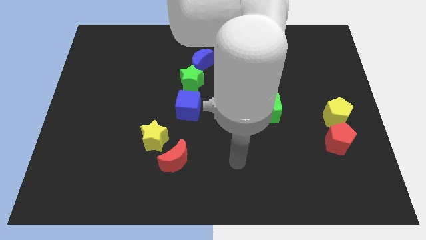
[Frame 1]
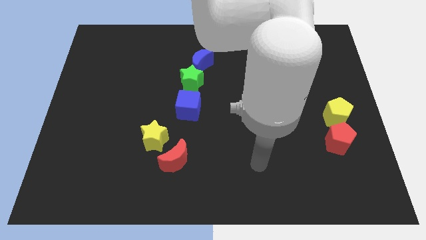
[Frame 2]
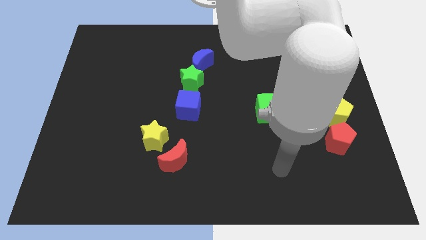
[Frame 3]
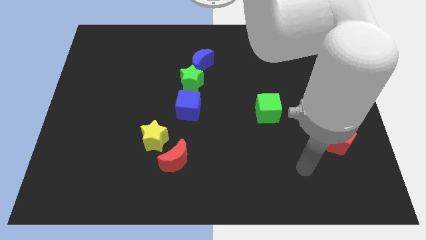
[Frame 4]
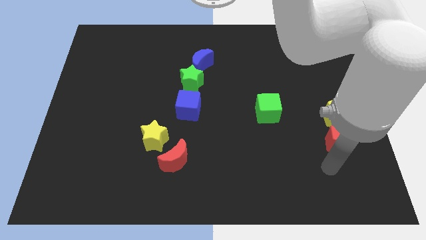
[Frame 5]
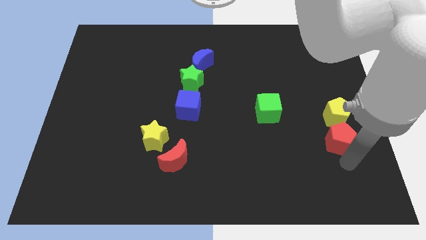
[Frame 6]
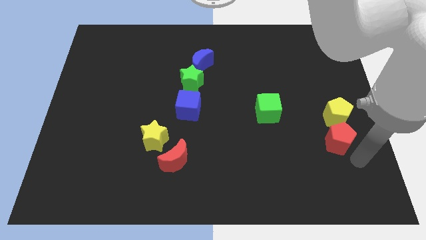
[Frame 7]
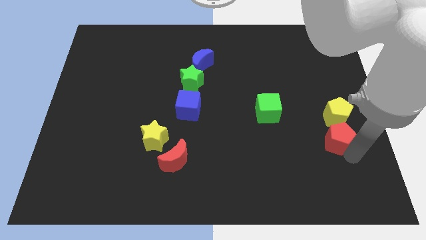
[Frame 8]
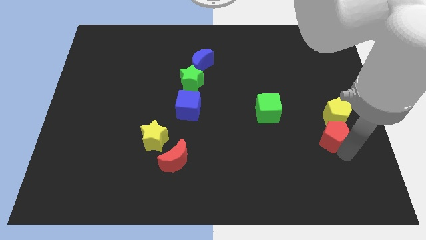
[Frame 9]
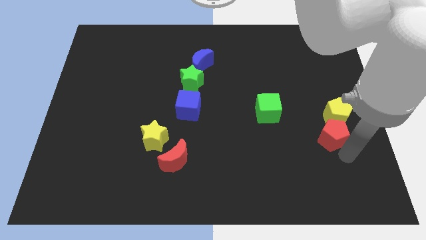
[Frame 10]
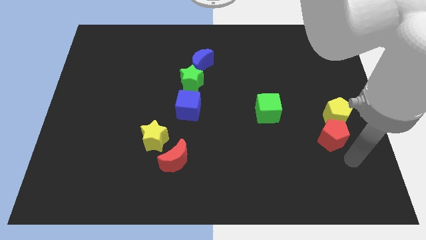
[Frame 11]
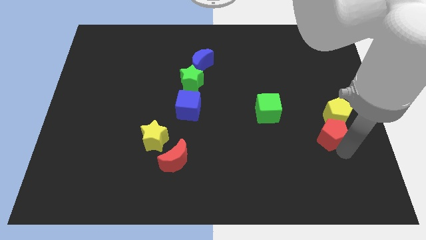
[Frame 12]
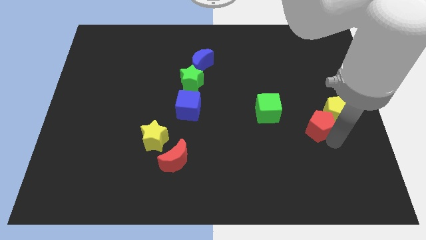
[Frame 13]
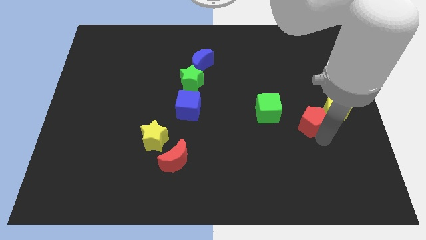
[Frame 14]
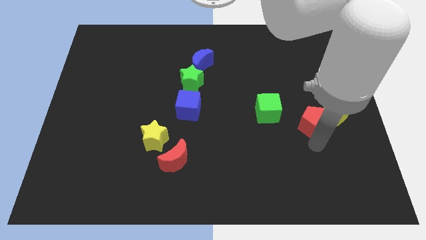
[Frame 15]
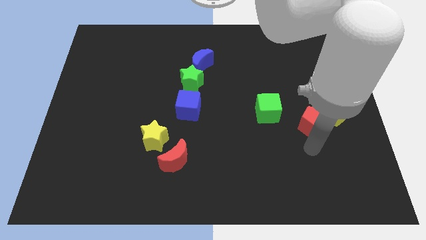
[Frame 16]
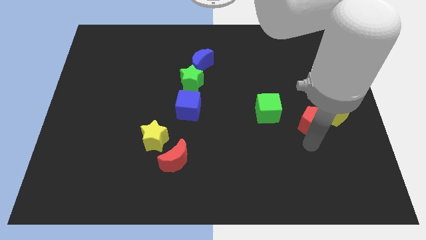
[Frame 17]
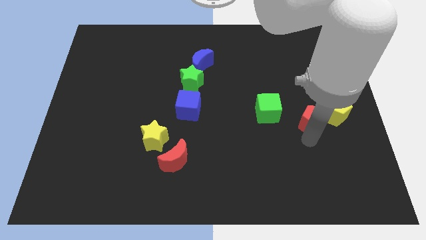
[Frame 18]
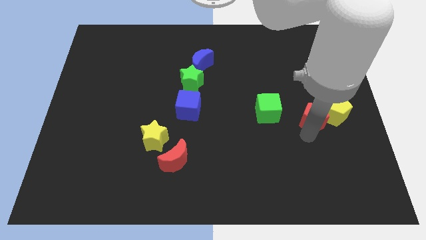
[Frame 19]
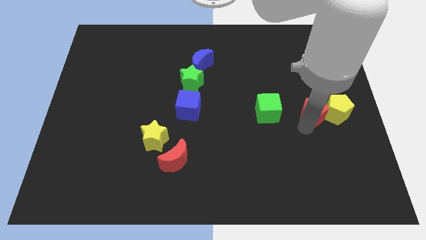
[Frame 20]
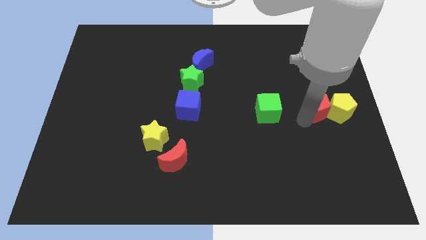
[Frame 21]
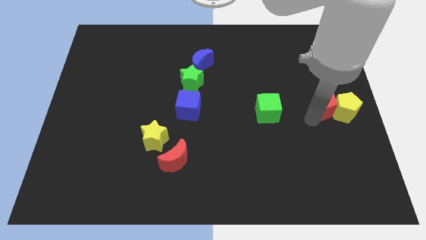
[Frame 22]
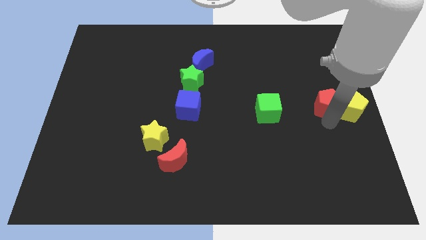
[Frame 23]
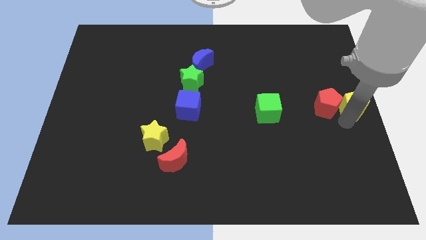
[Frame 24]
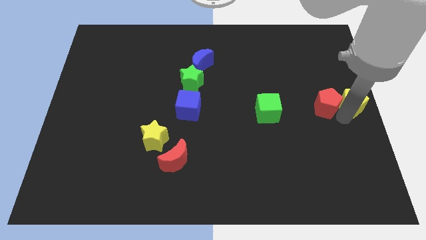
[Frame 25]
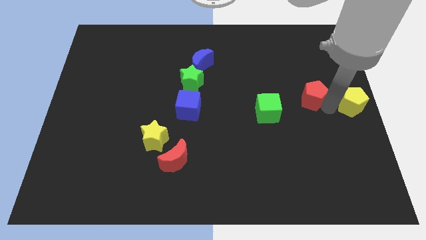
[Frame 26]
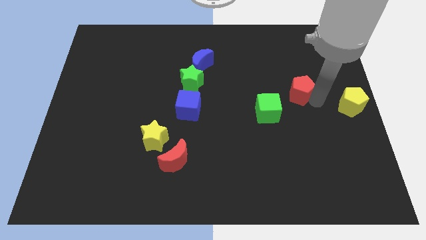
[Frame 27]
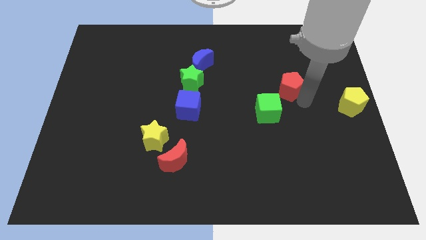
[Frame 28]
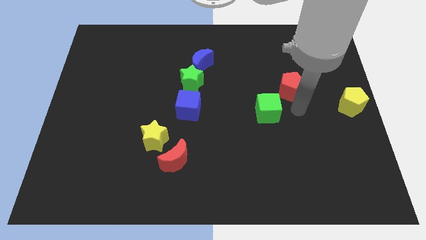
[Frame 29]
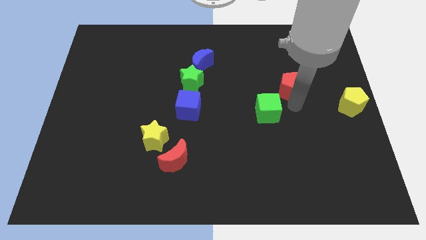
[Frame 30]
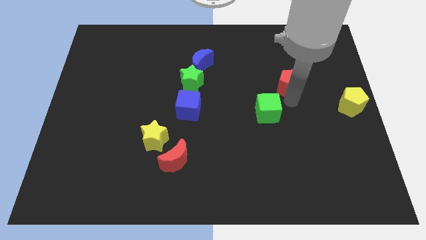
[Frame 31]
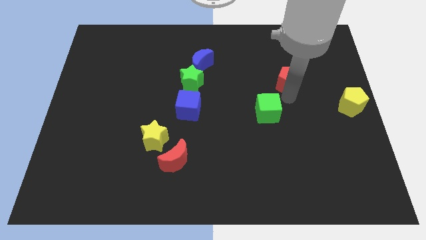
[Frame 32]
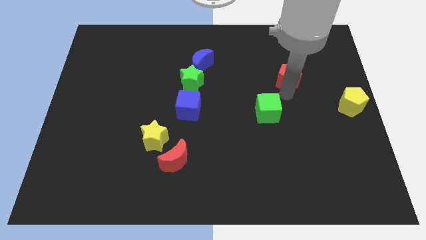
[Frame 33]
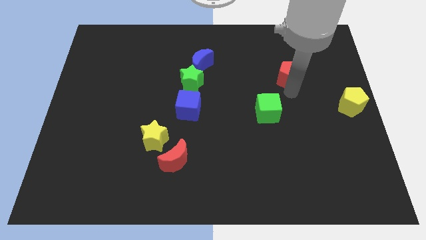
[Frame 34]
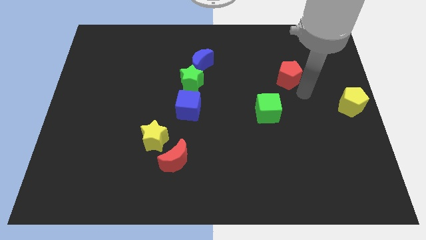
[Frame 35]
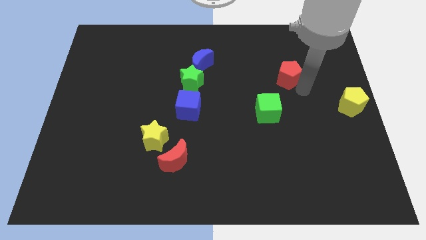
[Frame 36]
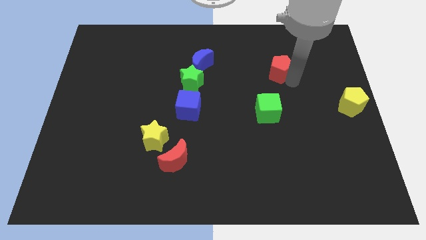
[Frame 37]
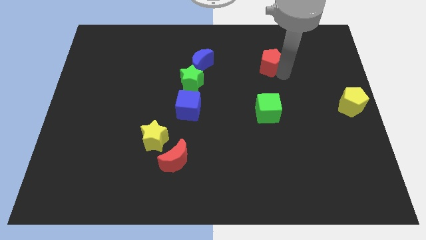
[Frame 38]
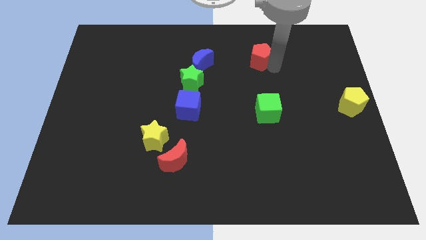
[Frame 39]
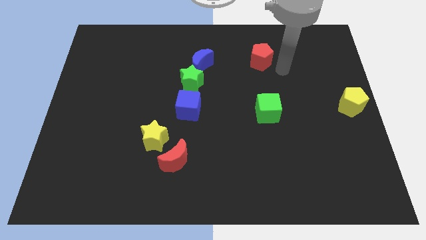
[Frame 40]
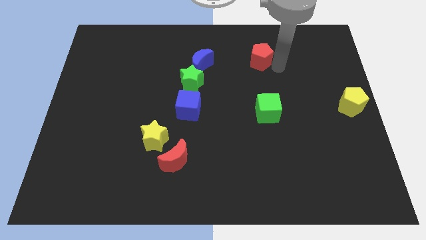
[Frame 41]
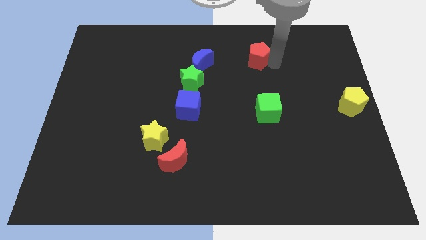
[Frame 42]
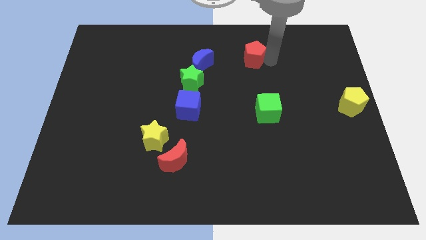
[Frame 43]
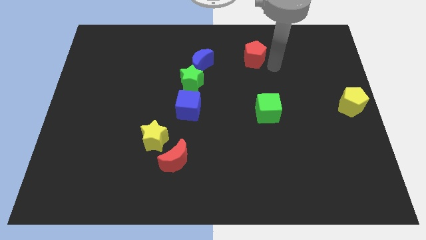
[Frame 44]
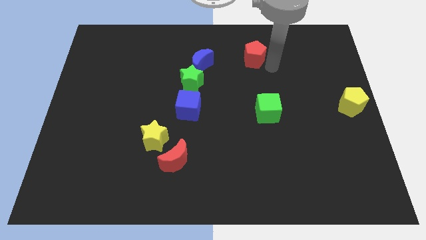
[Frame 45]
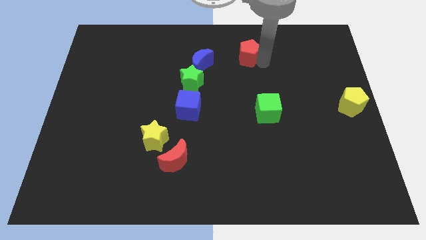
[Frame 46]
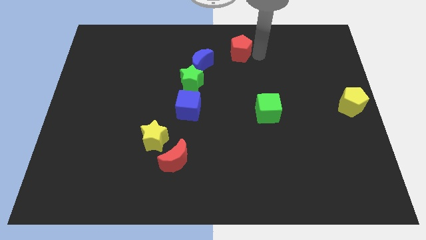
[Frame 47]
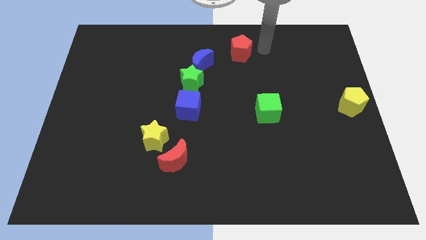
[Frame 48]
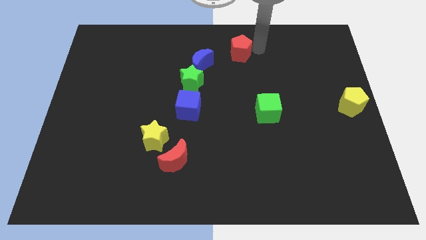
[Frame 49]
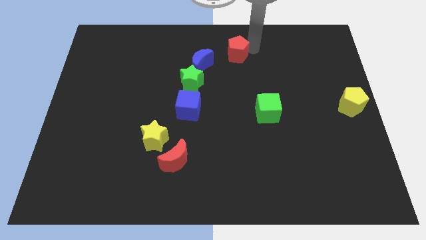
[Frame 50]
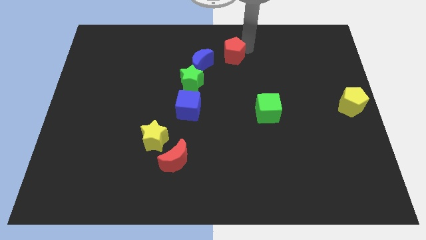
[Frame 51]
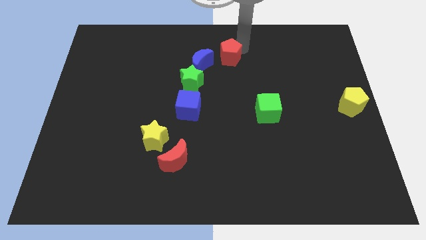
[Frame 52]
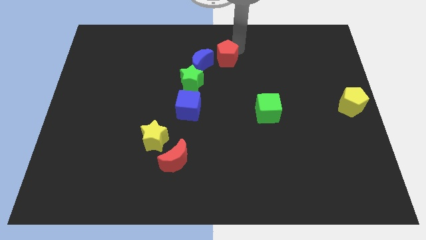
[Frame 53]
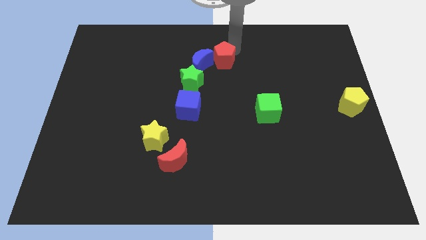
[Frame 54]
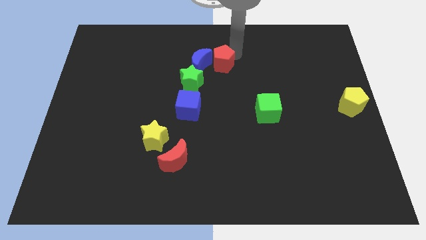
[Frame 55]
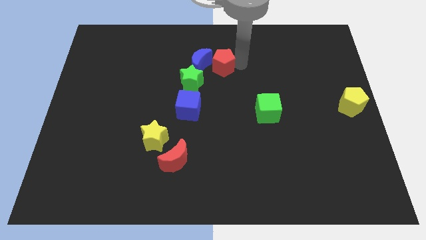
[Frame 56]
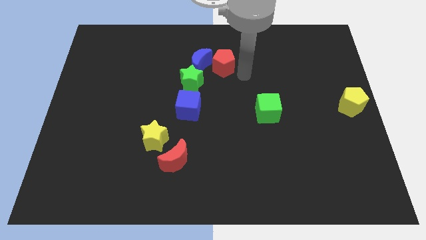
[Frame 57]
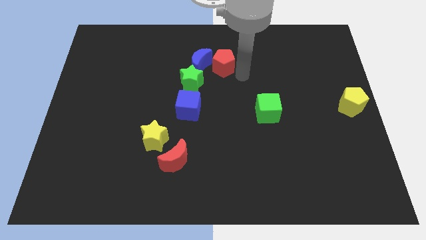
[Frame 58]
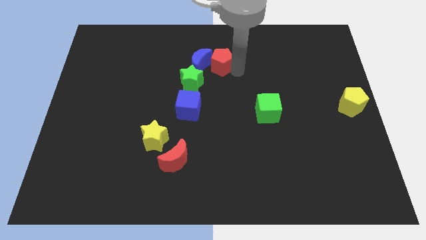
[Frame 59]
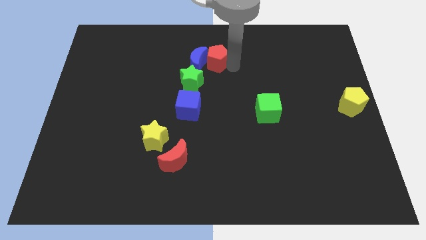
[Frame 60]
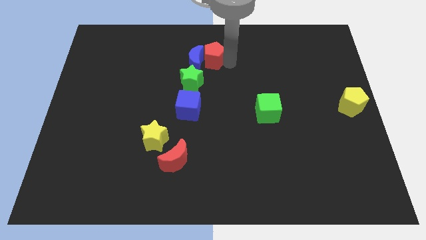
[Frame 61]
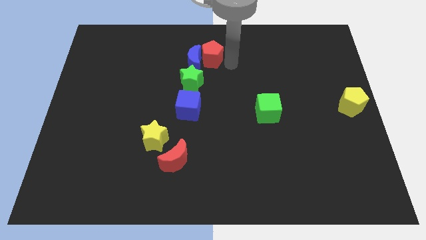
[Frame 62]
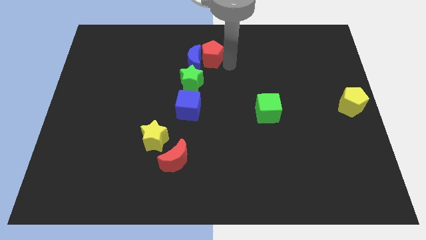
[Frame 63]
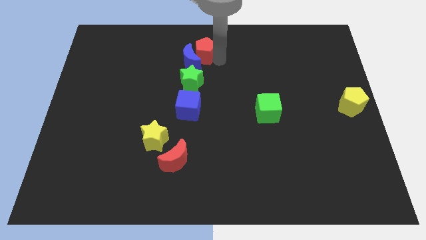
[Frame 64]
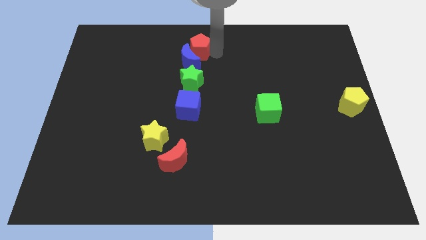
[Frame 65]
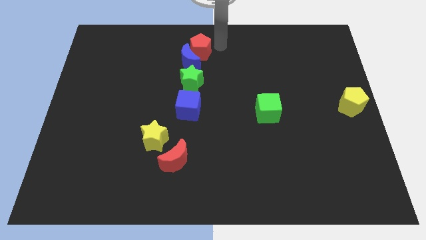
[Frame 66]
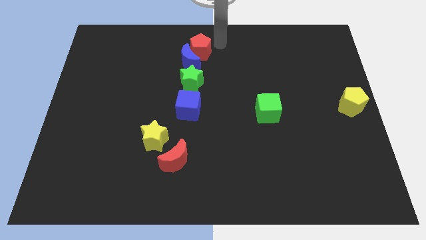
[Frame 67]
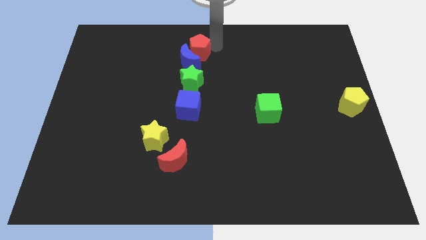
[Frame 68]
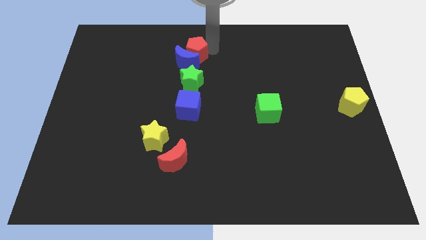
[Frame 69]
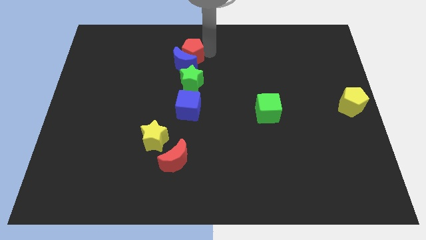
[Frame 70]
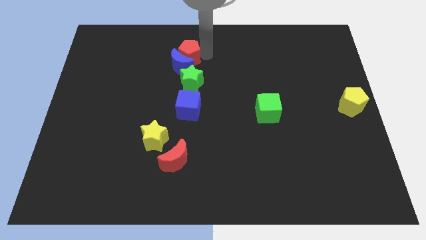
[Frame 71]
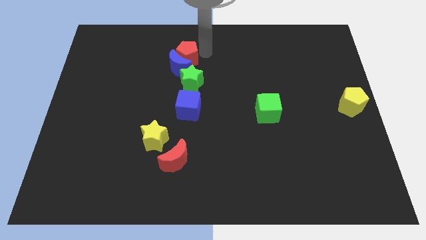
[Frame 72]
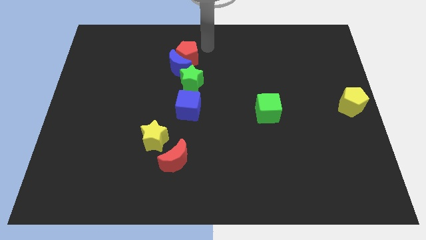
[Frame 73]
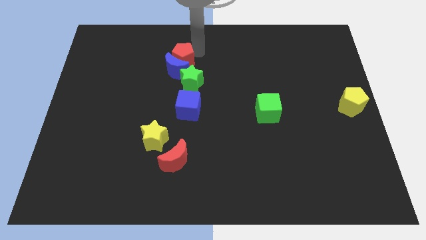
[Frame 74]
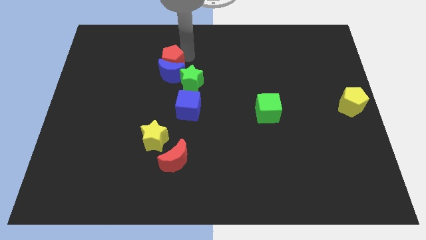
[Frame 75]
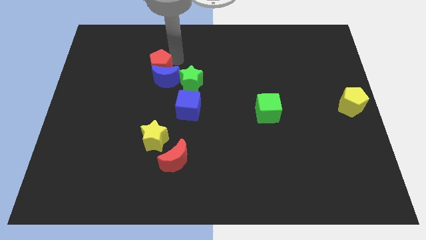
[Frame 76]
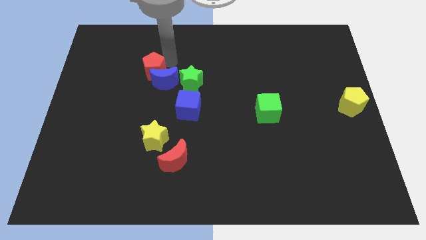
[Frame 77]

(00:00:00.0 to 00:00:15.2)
put the red pentagon just left of the green star
